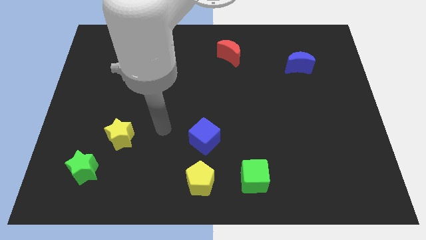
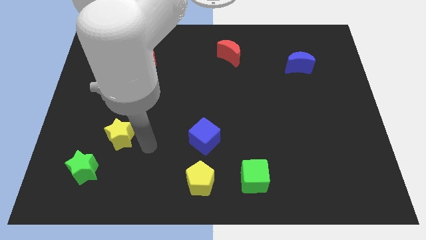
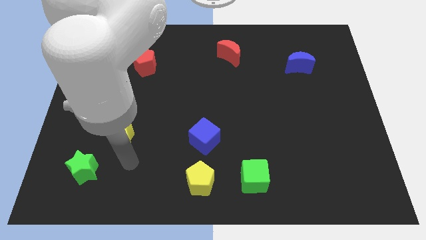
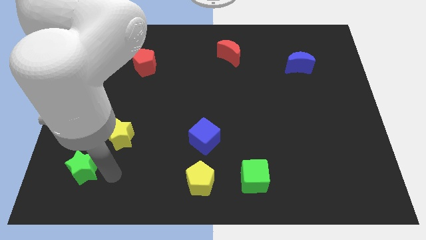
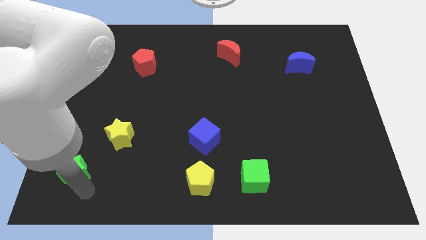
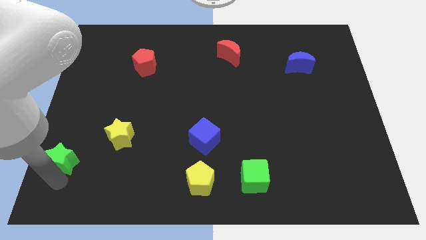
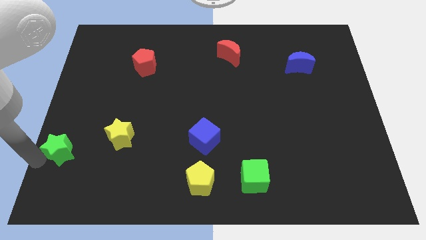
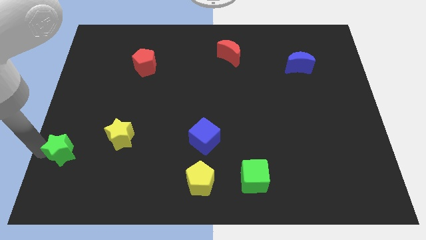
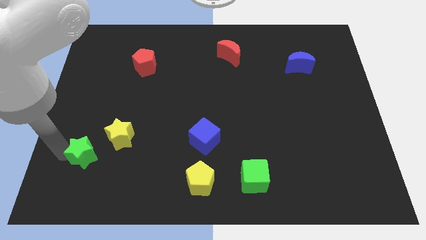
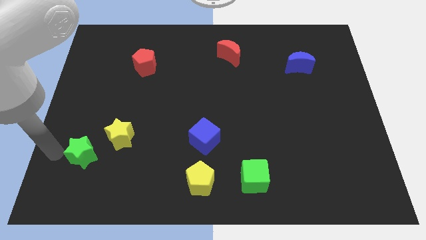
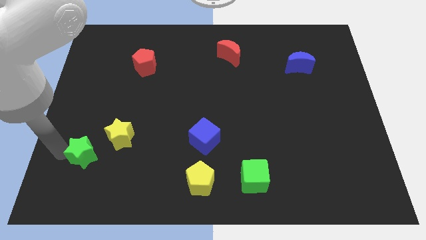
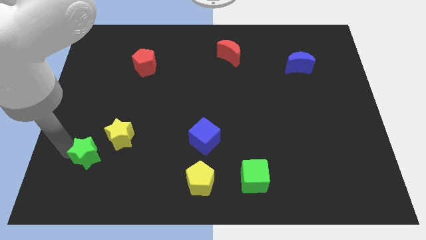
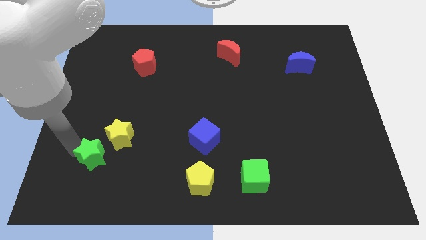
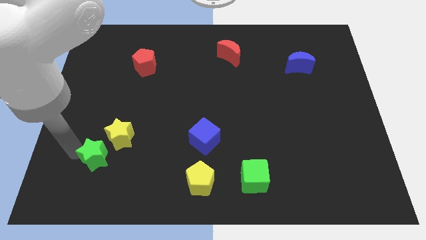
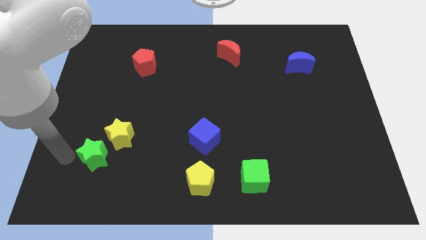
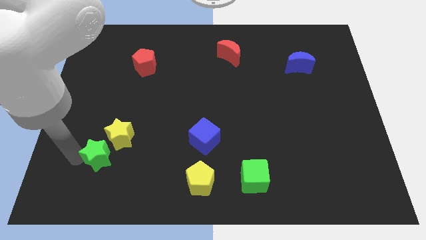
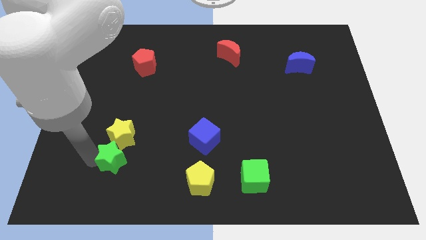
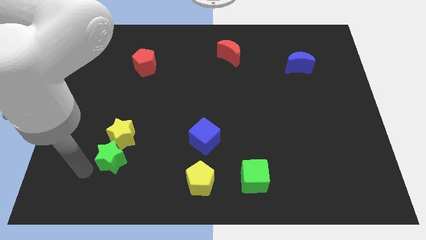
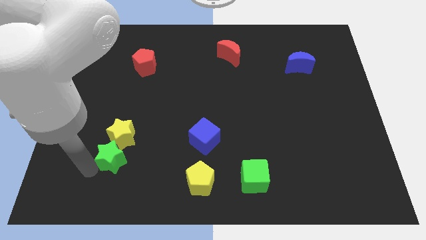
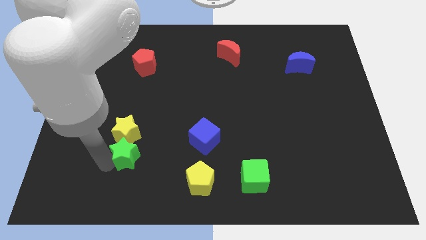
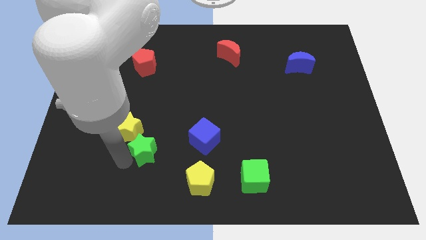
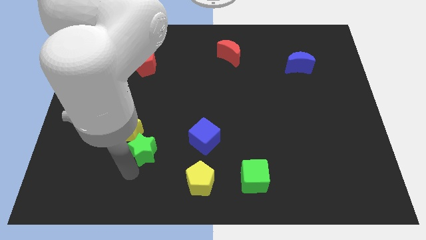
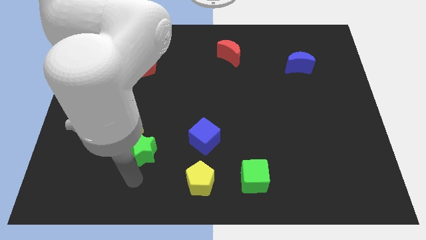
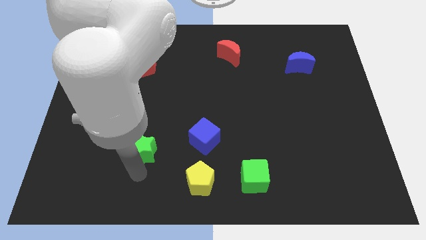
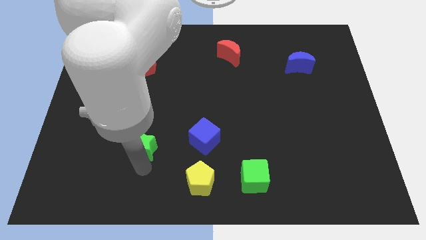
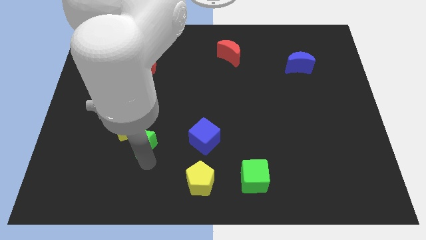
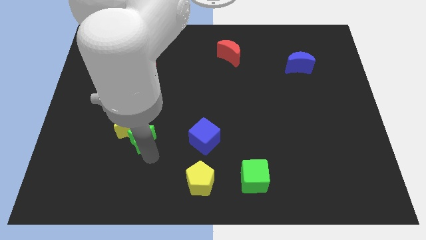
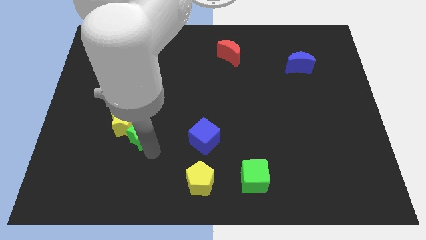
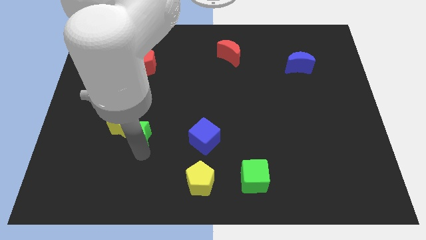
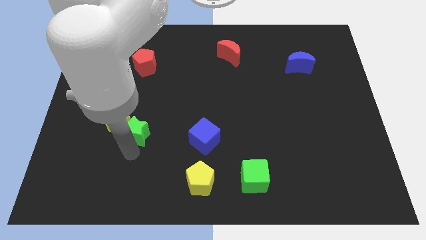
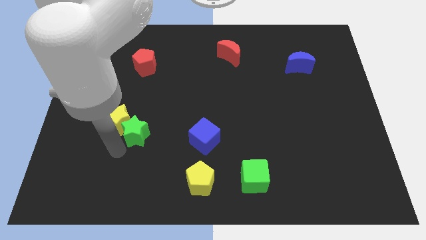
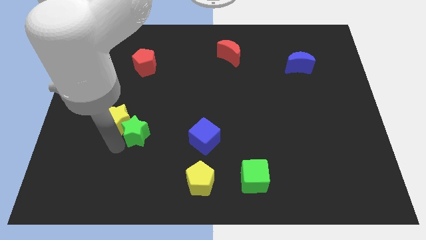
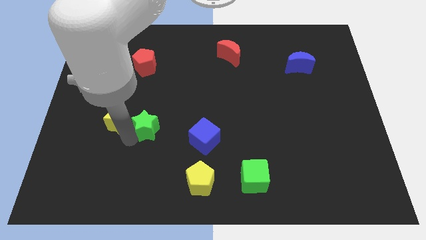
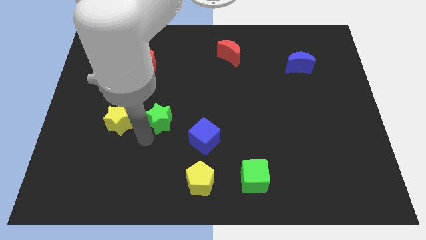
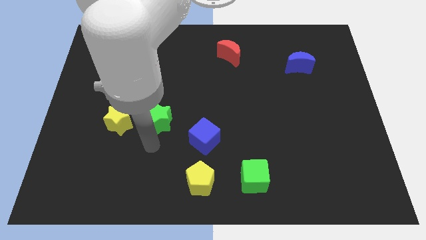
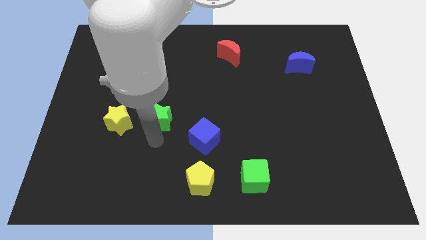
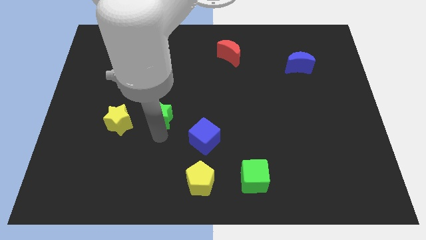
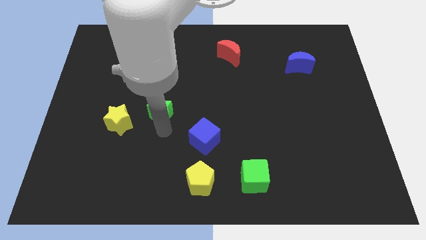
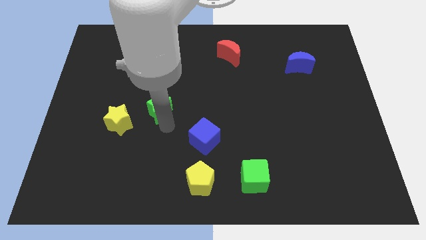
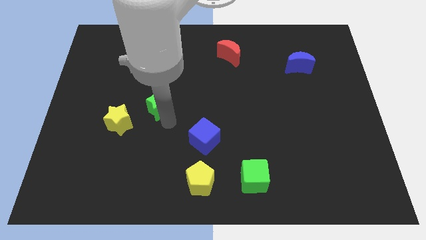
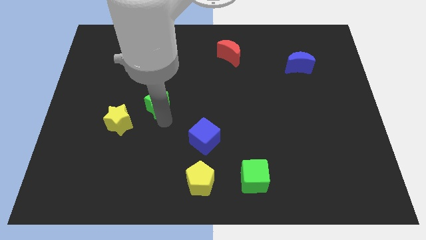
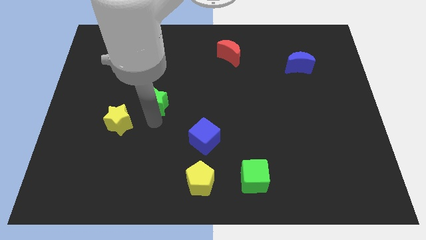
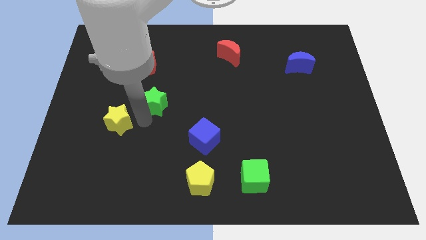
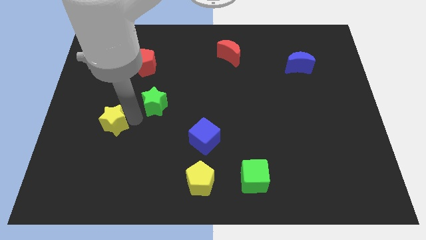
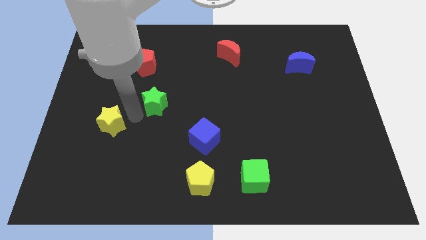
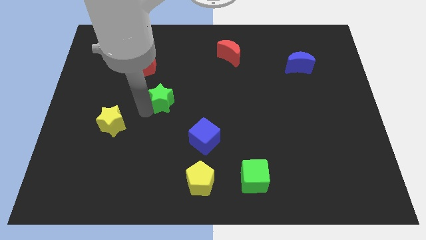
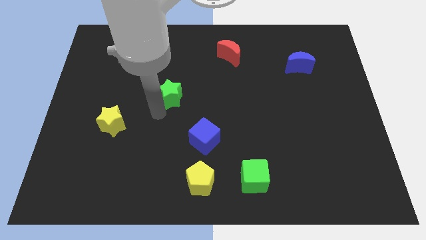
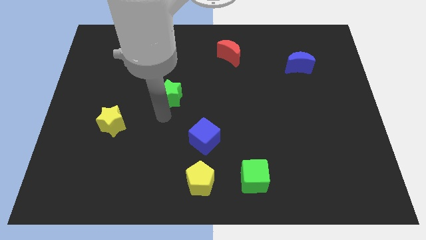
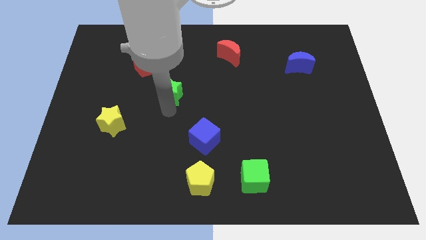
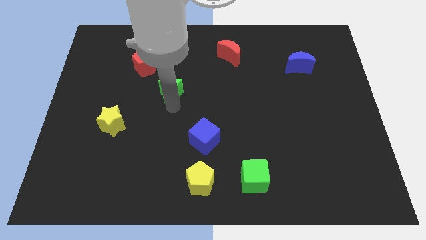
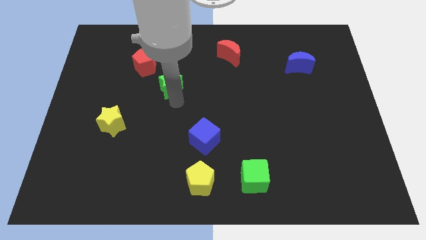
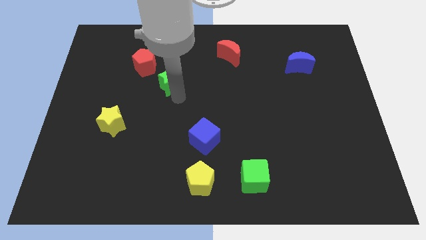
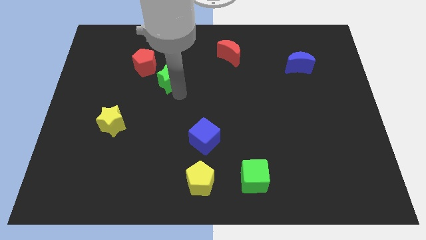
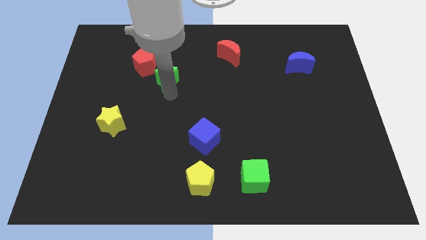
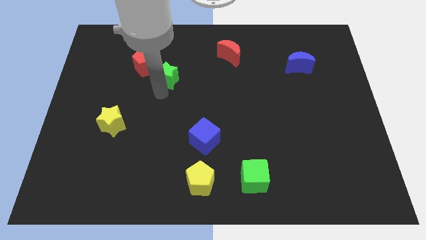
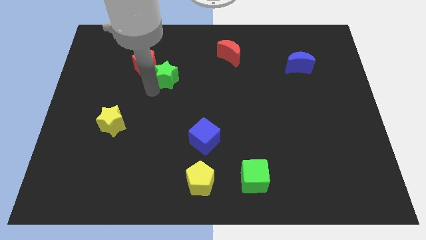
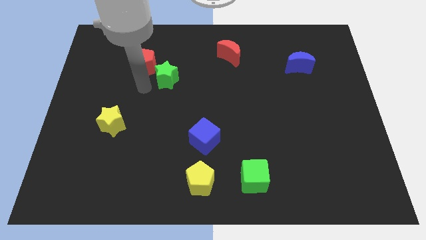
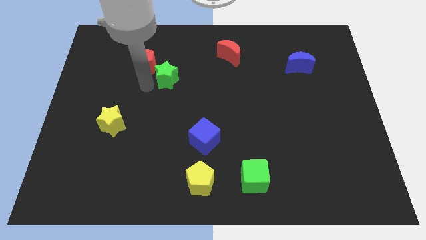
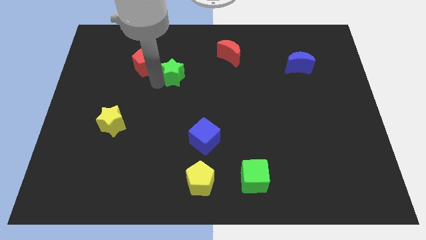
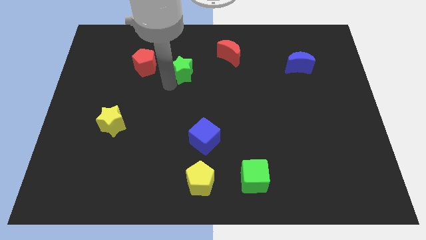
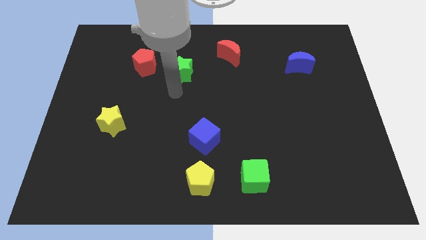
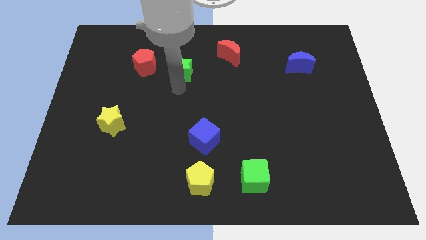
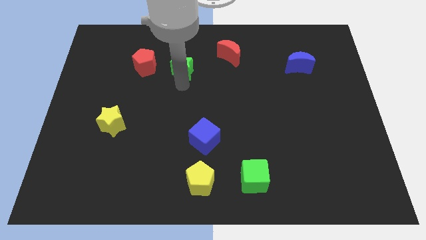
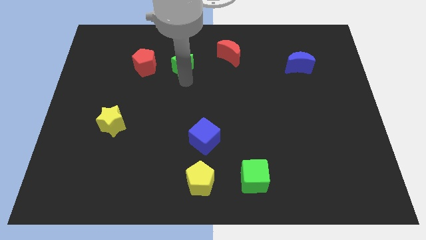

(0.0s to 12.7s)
push the green star to the left of the red moon
